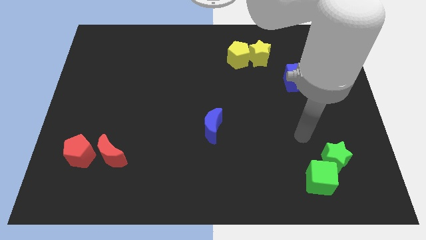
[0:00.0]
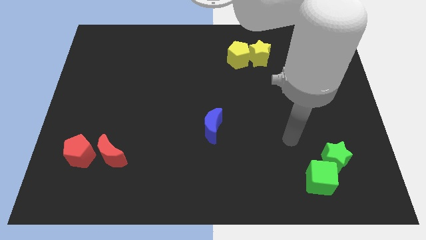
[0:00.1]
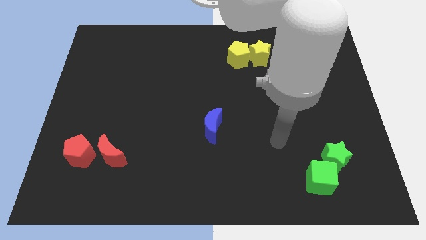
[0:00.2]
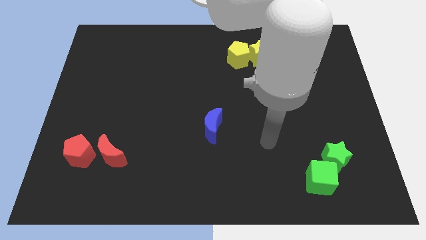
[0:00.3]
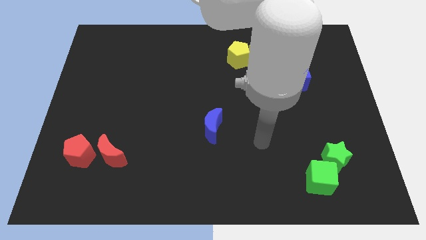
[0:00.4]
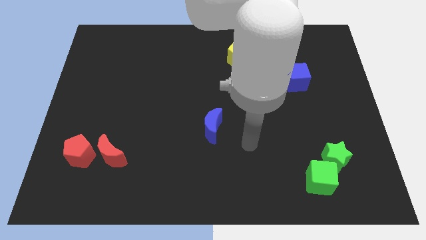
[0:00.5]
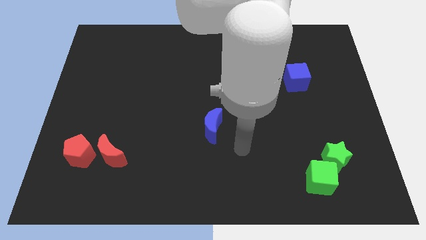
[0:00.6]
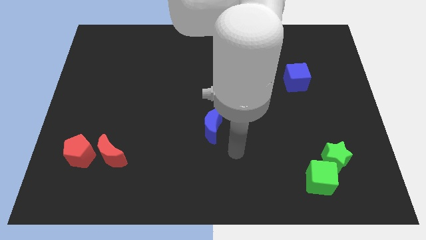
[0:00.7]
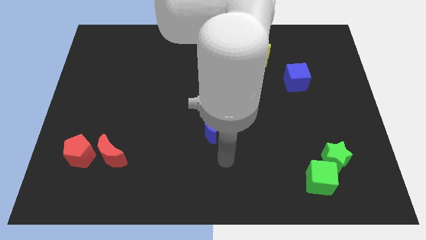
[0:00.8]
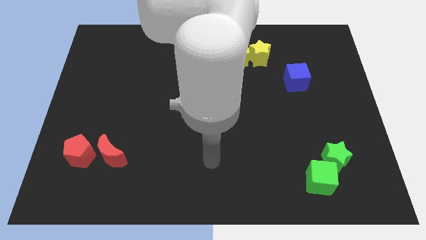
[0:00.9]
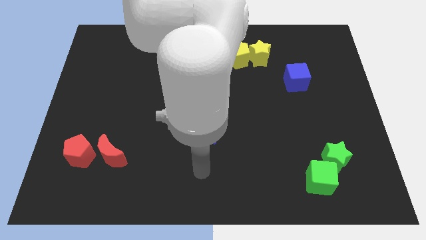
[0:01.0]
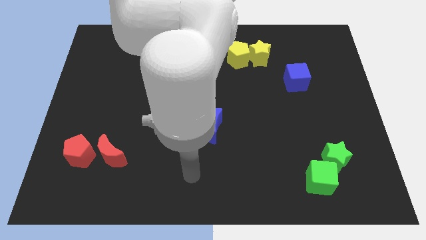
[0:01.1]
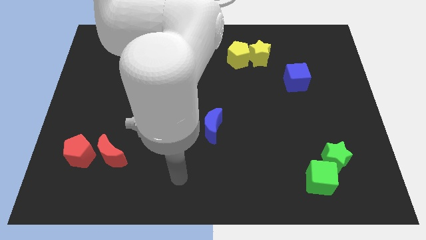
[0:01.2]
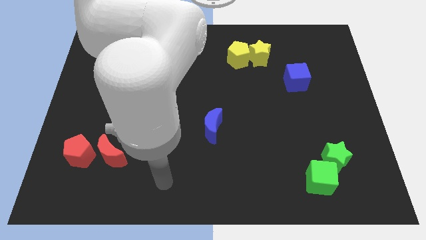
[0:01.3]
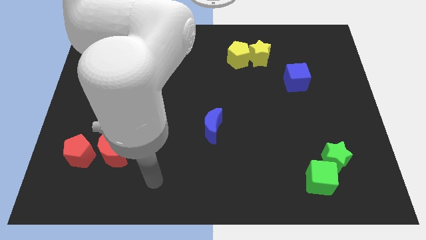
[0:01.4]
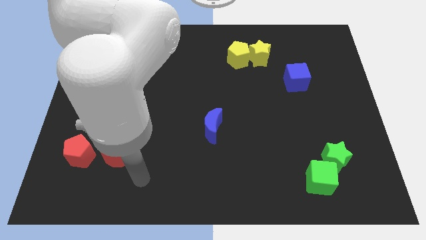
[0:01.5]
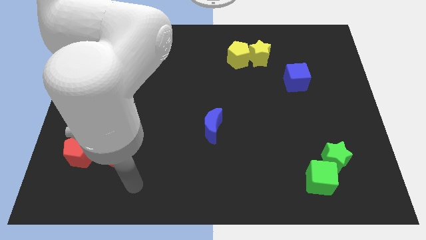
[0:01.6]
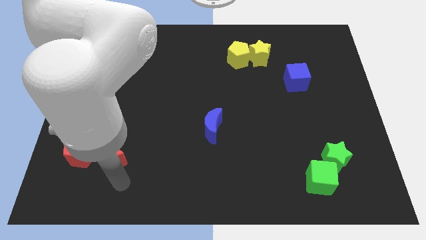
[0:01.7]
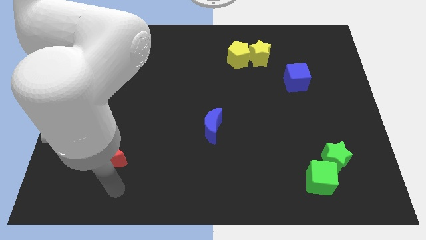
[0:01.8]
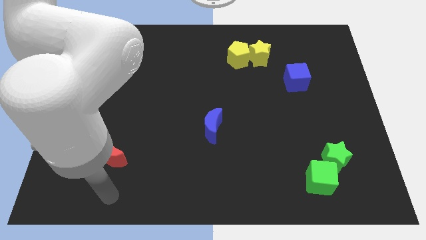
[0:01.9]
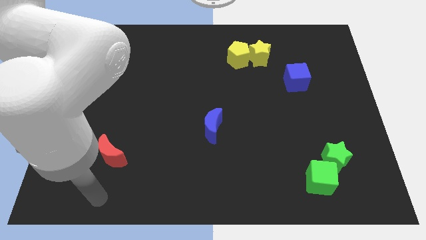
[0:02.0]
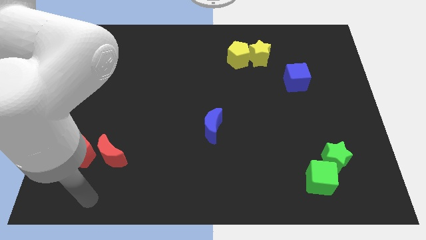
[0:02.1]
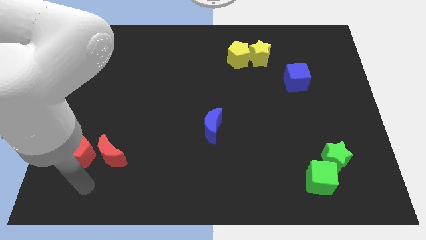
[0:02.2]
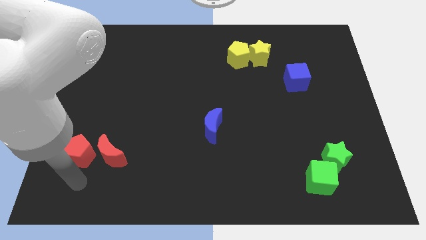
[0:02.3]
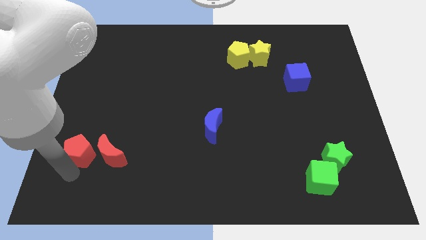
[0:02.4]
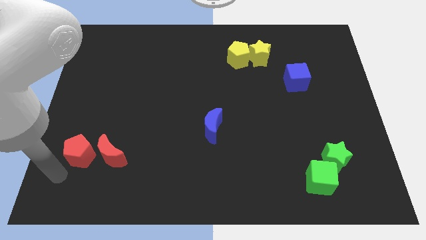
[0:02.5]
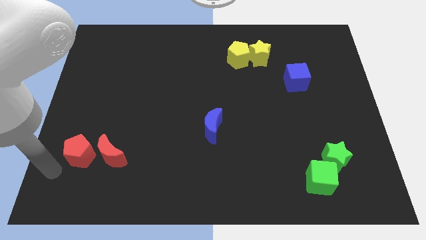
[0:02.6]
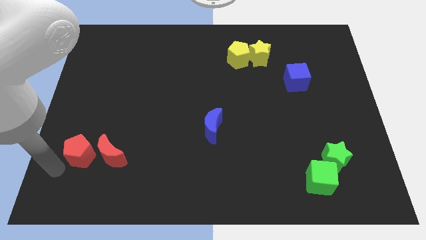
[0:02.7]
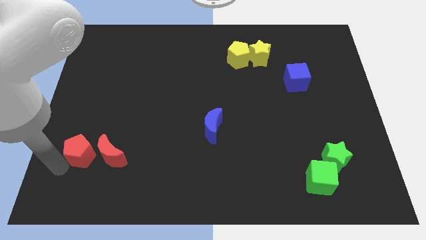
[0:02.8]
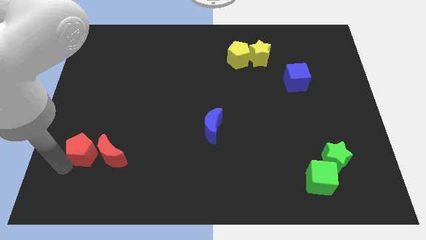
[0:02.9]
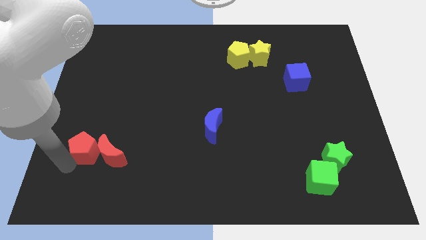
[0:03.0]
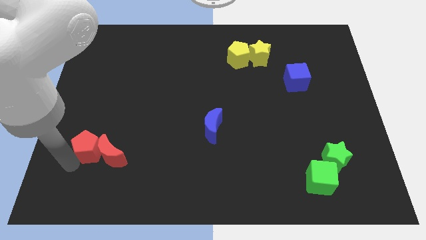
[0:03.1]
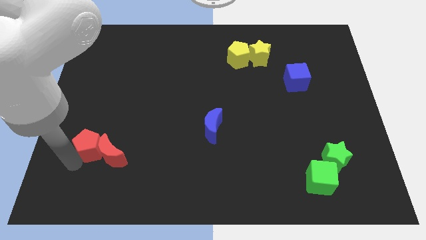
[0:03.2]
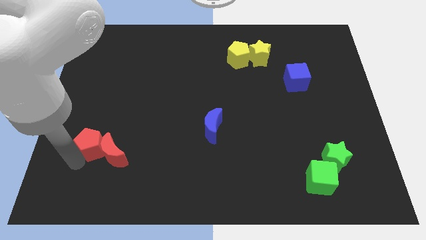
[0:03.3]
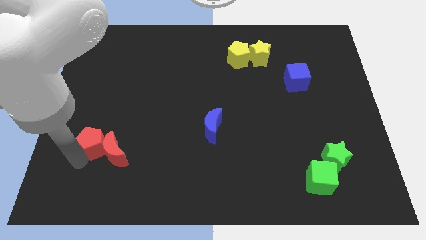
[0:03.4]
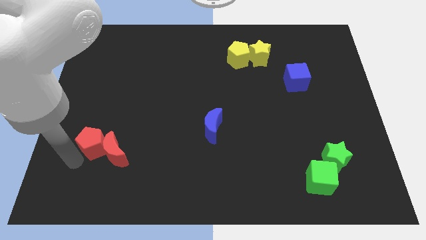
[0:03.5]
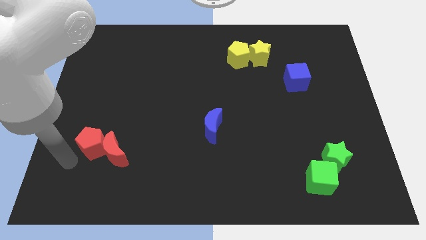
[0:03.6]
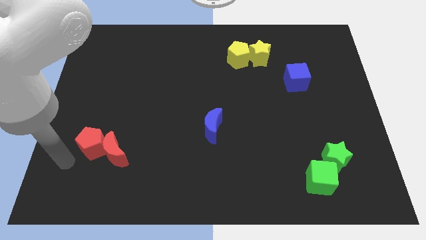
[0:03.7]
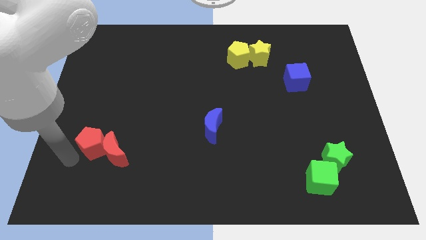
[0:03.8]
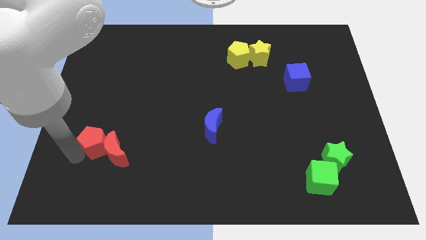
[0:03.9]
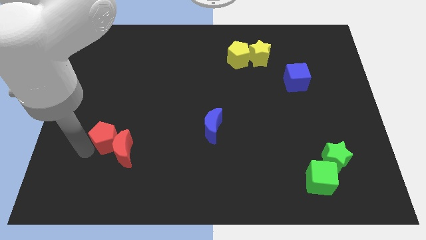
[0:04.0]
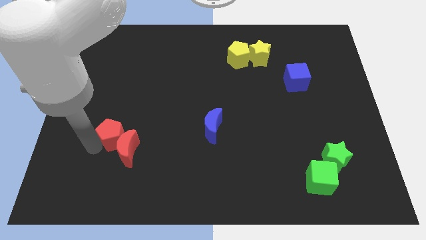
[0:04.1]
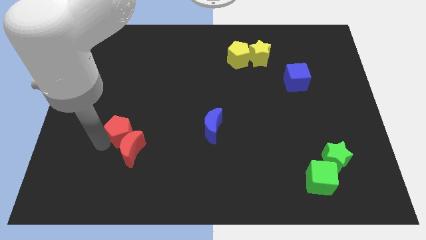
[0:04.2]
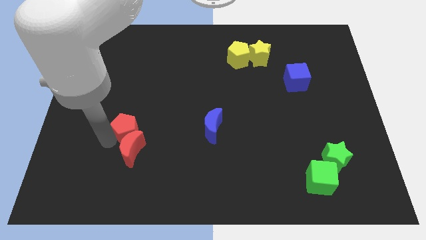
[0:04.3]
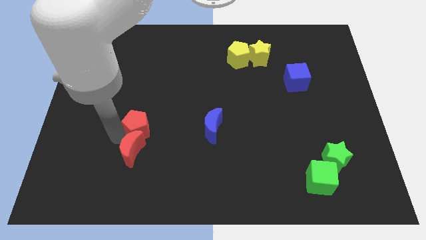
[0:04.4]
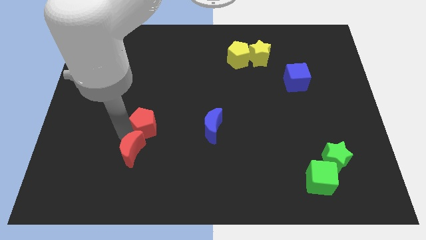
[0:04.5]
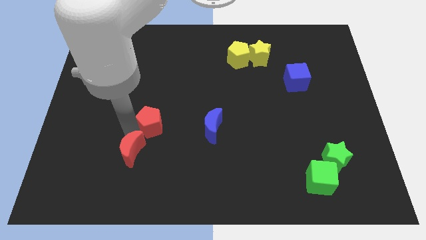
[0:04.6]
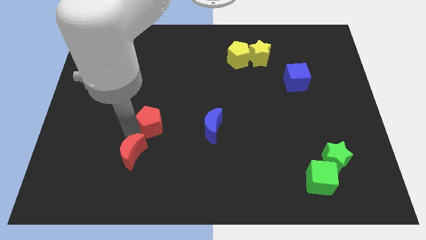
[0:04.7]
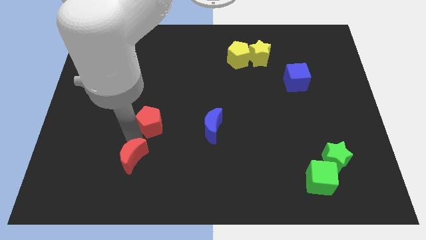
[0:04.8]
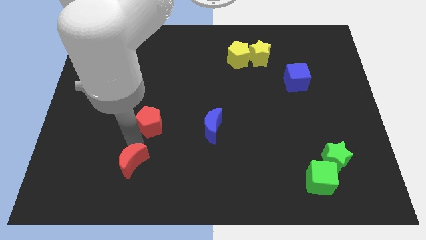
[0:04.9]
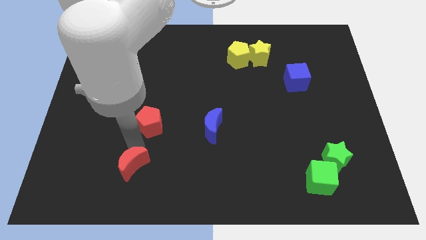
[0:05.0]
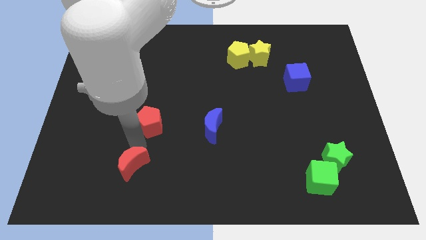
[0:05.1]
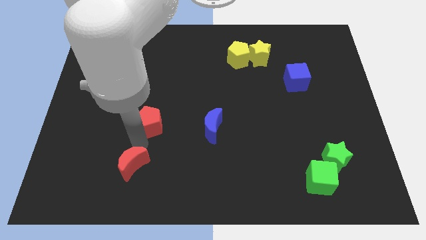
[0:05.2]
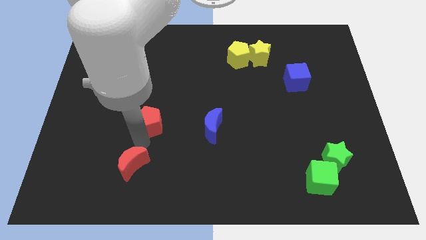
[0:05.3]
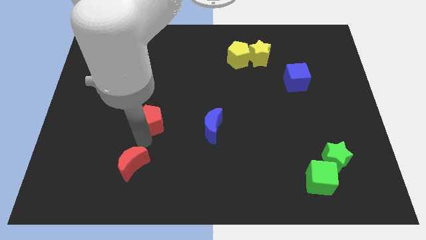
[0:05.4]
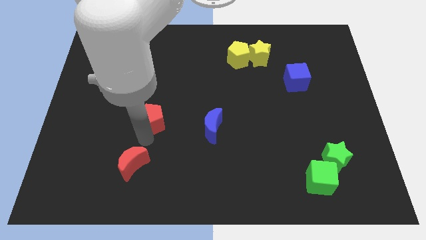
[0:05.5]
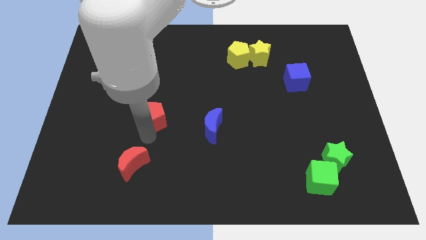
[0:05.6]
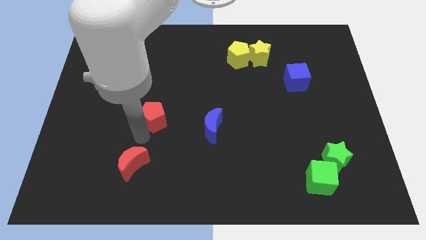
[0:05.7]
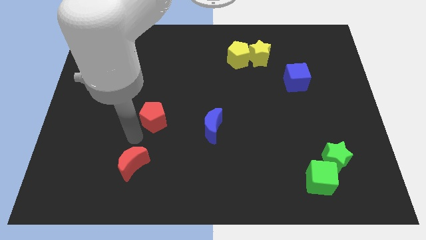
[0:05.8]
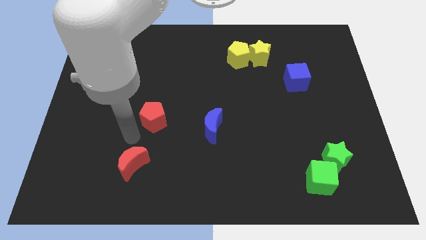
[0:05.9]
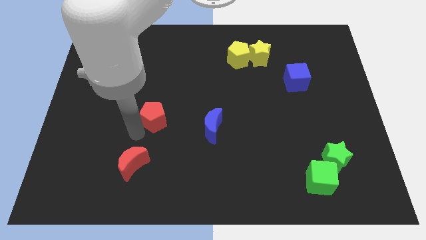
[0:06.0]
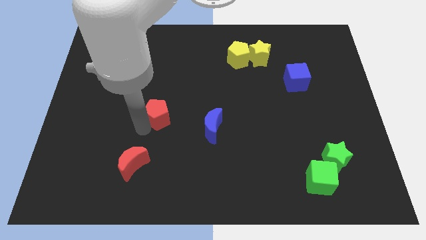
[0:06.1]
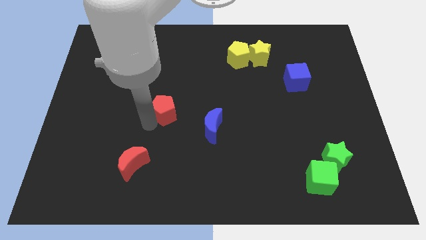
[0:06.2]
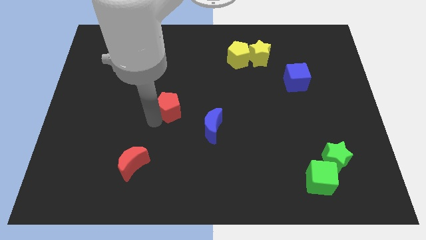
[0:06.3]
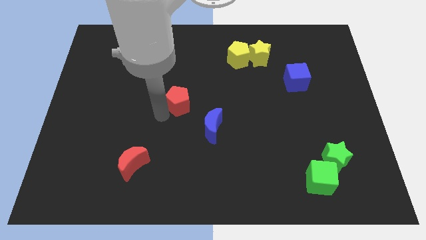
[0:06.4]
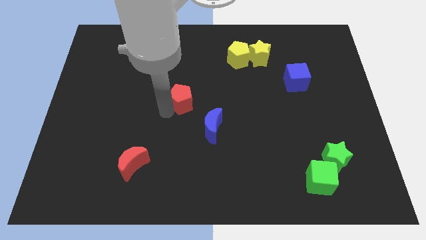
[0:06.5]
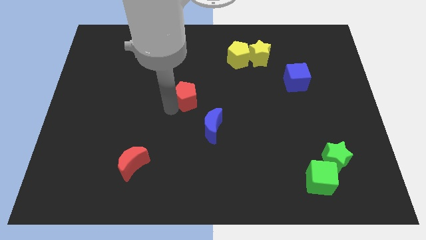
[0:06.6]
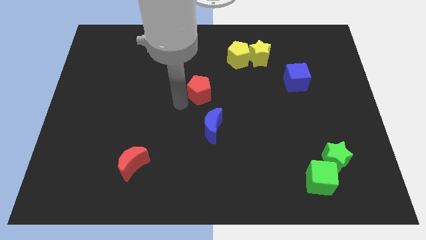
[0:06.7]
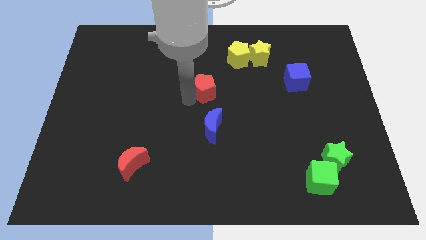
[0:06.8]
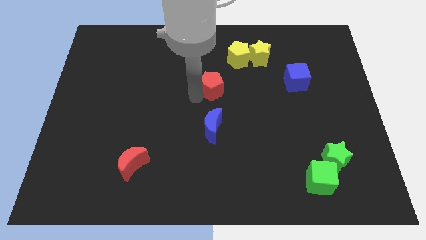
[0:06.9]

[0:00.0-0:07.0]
move the red pentagon diagonally down and to the left of the yellow pentagon

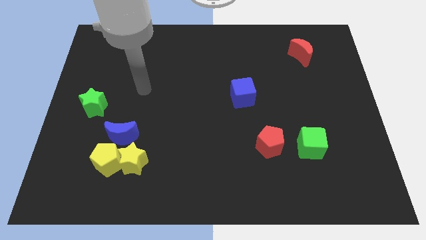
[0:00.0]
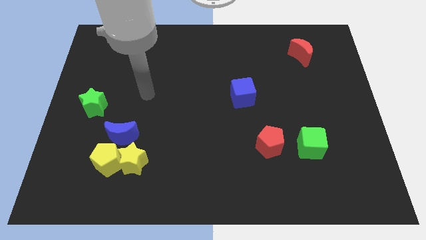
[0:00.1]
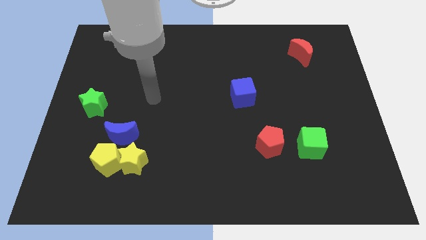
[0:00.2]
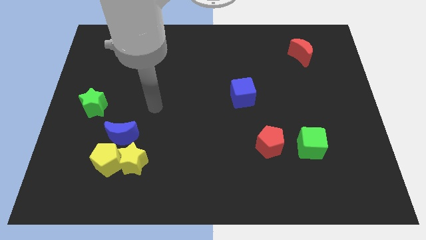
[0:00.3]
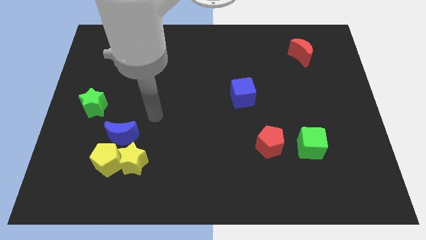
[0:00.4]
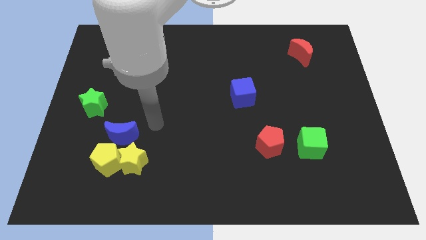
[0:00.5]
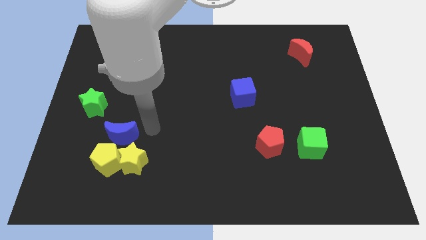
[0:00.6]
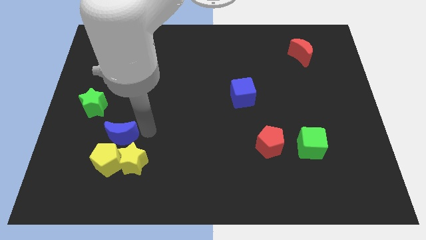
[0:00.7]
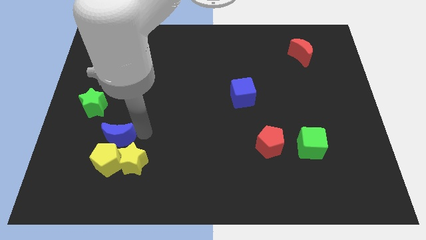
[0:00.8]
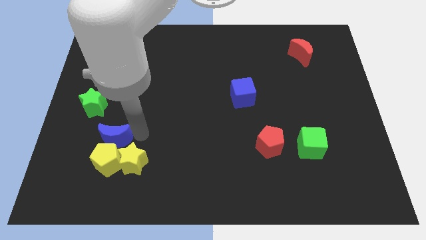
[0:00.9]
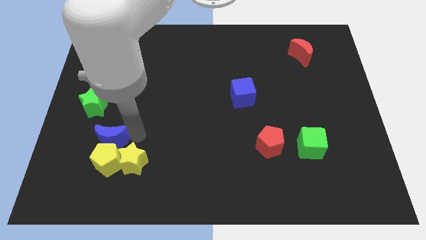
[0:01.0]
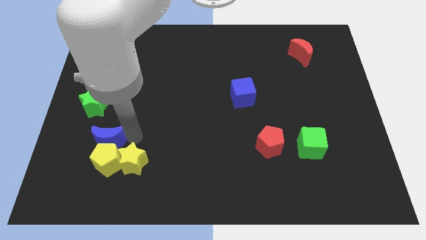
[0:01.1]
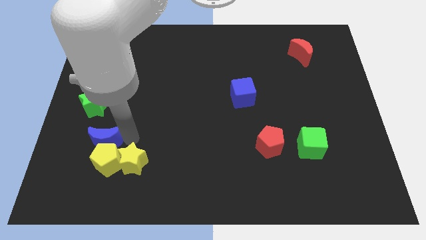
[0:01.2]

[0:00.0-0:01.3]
move the blue moon below the green star
